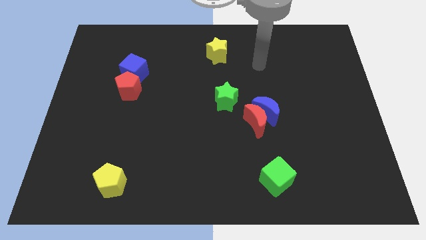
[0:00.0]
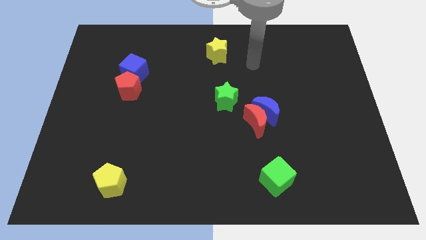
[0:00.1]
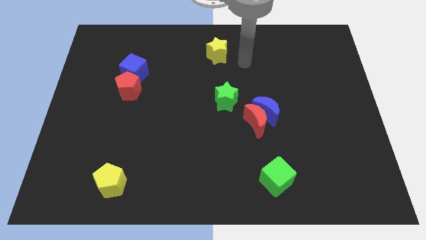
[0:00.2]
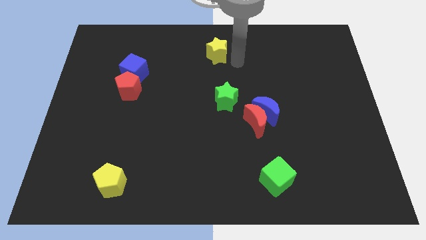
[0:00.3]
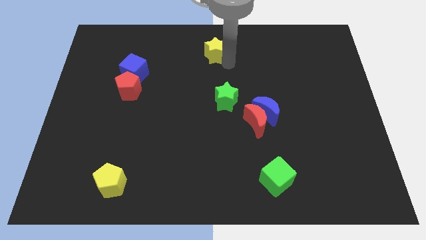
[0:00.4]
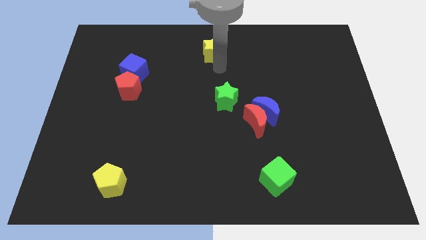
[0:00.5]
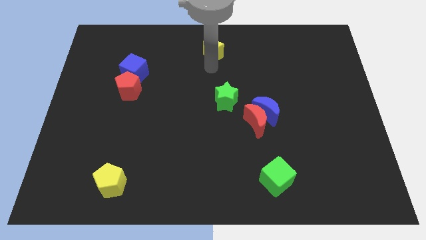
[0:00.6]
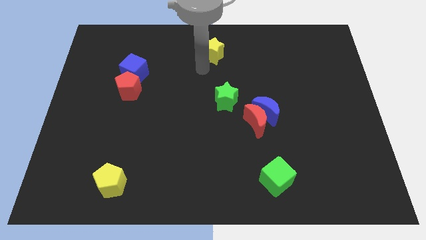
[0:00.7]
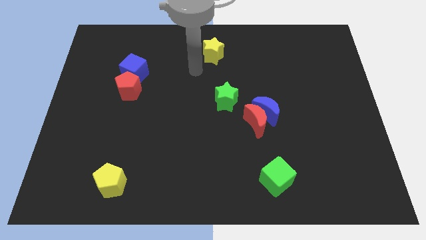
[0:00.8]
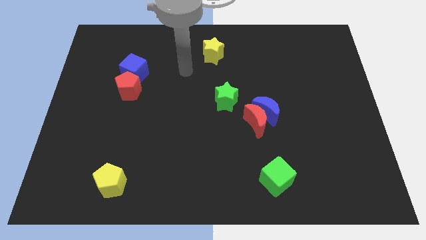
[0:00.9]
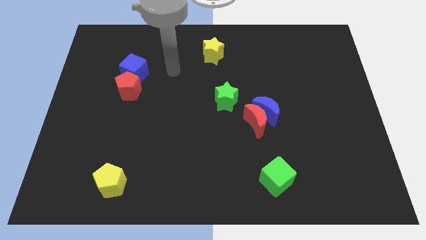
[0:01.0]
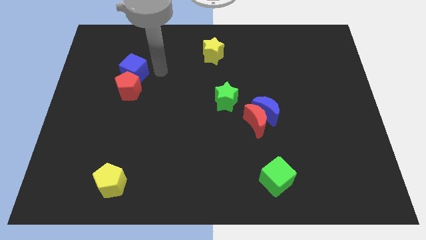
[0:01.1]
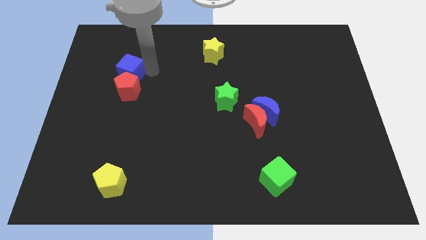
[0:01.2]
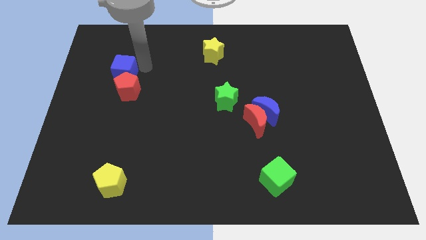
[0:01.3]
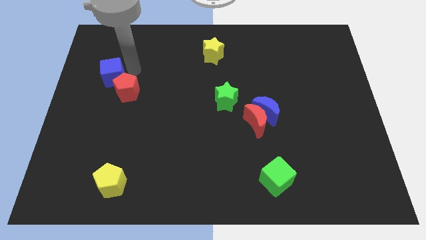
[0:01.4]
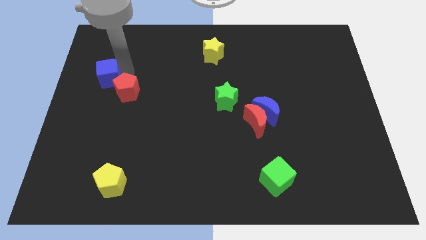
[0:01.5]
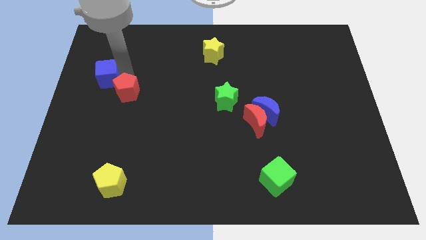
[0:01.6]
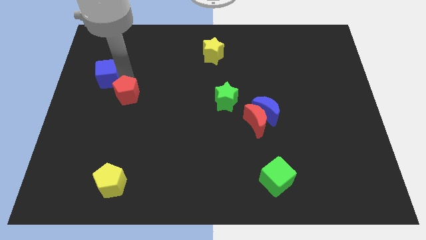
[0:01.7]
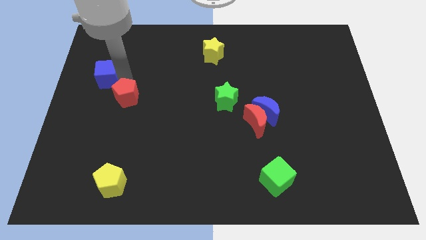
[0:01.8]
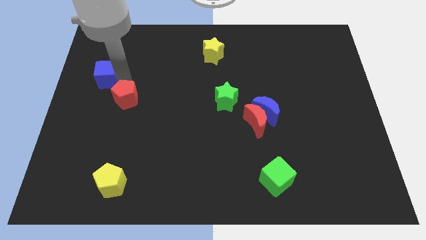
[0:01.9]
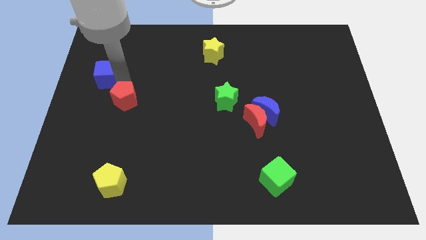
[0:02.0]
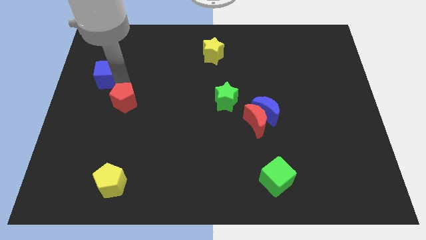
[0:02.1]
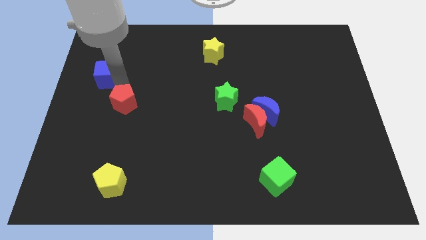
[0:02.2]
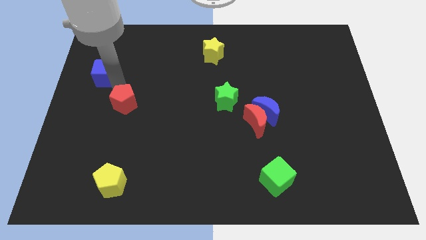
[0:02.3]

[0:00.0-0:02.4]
pull the red pentagon apart from the blue cube

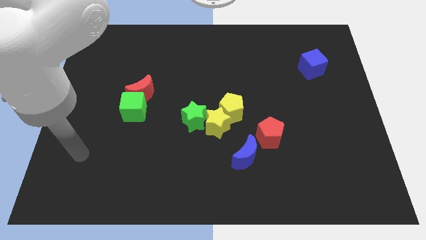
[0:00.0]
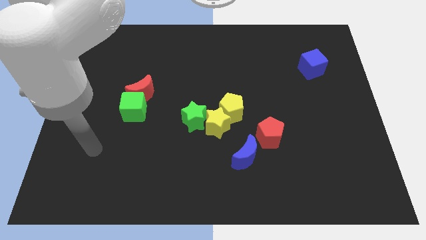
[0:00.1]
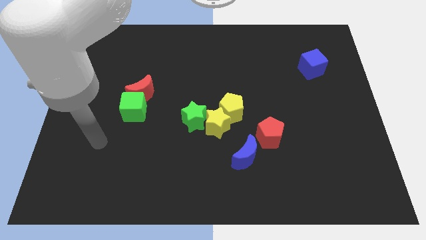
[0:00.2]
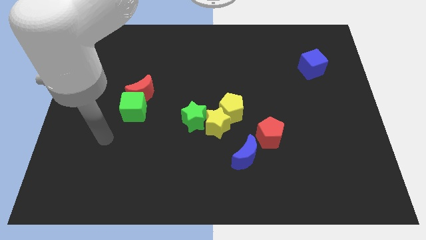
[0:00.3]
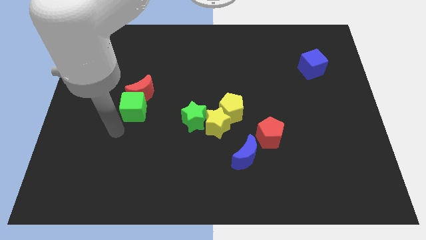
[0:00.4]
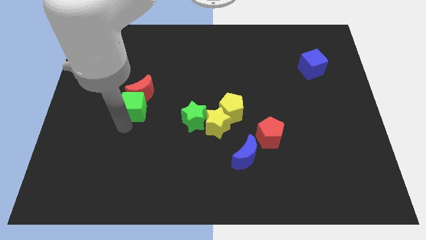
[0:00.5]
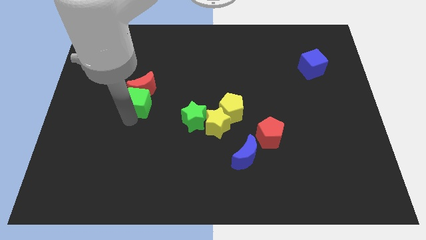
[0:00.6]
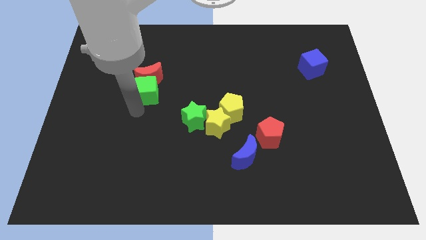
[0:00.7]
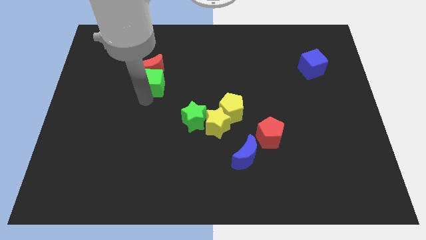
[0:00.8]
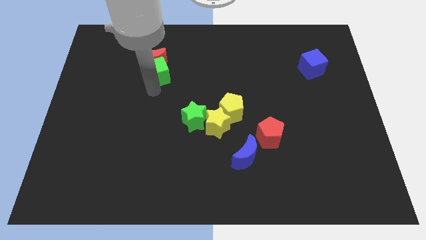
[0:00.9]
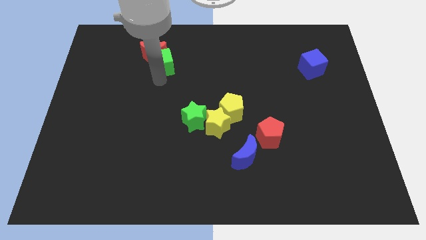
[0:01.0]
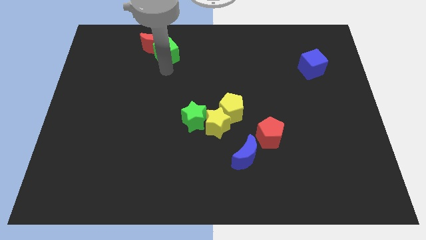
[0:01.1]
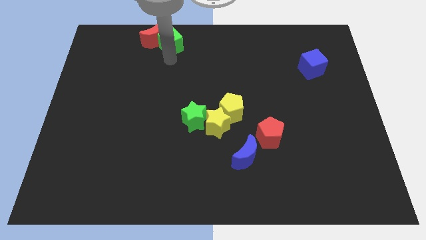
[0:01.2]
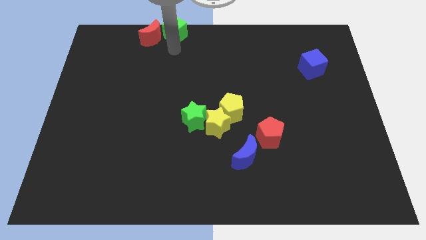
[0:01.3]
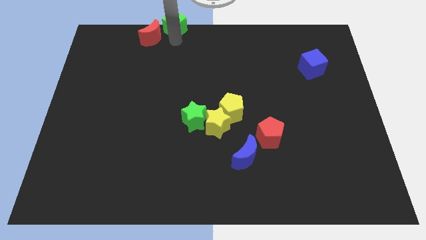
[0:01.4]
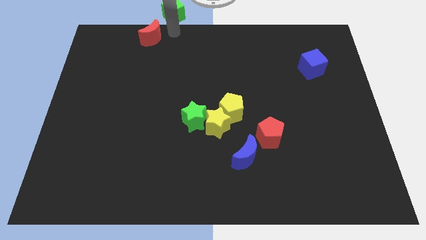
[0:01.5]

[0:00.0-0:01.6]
separate the red moon from the green cube

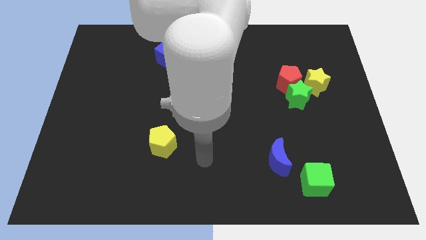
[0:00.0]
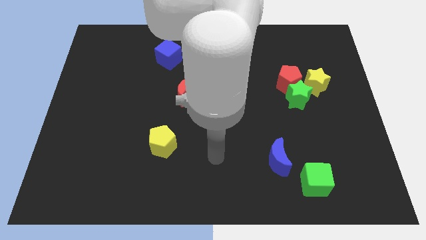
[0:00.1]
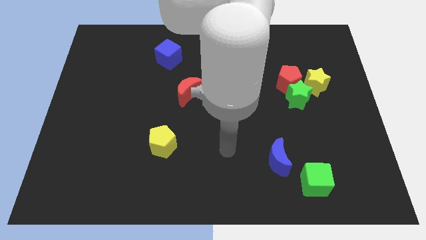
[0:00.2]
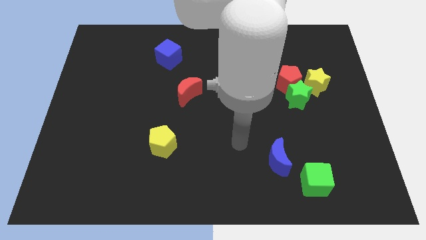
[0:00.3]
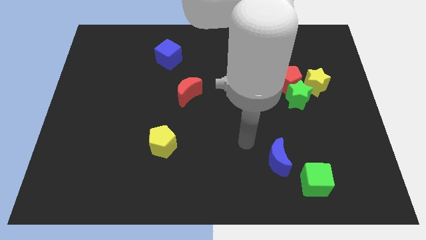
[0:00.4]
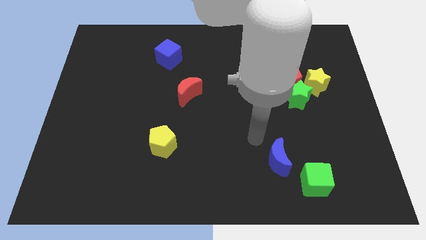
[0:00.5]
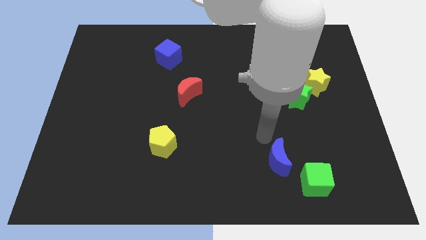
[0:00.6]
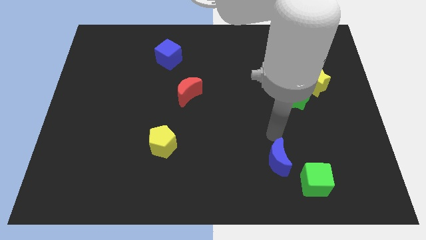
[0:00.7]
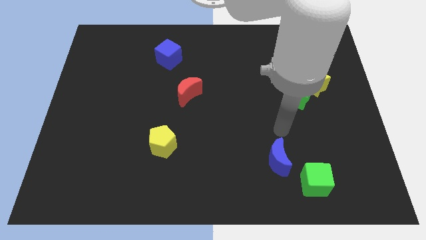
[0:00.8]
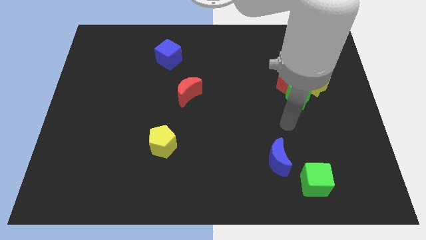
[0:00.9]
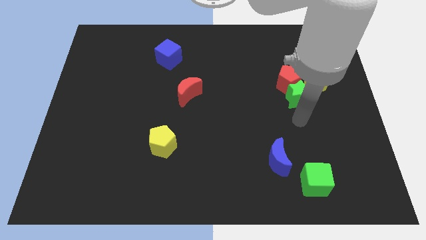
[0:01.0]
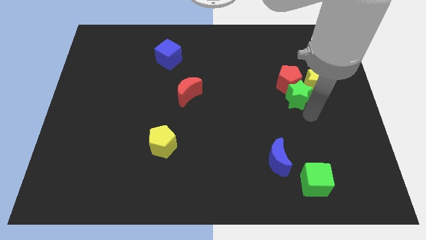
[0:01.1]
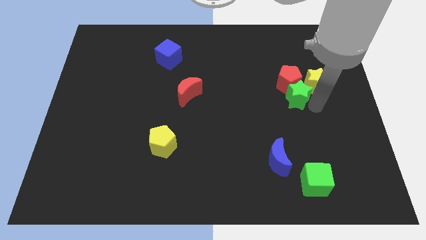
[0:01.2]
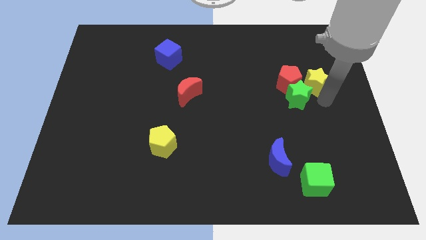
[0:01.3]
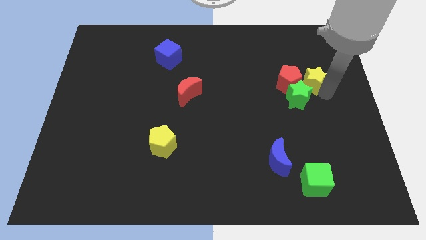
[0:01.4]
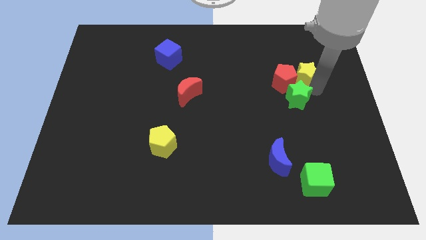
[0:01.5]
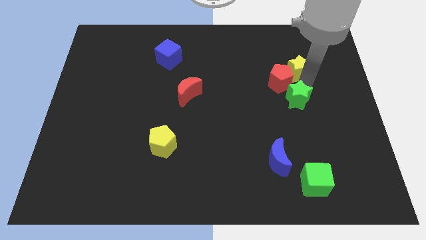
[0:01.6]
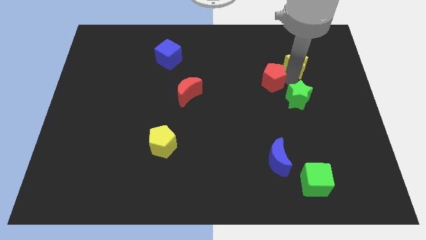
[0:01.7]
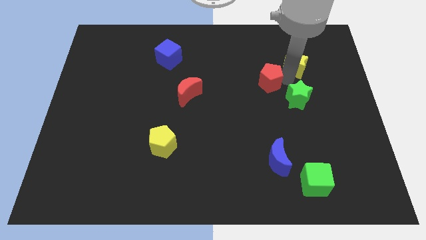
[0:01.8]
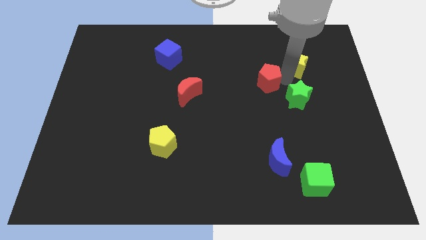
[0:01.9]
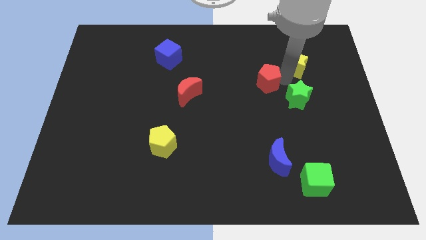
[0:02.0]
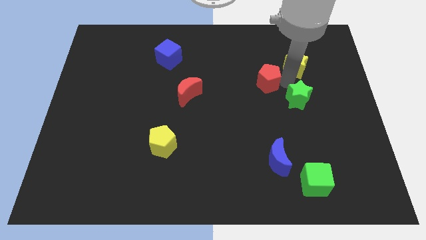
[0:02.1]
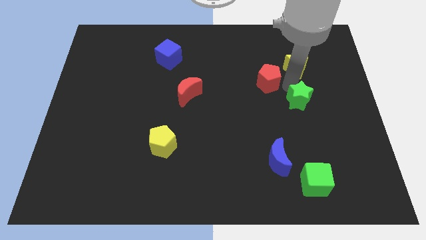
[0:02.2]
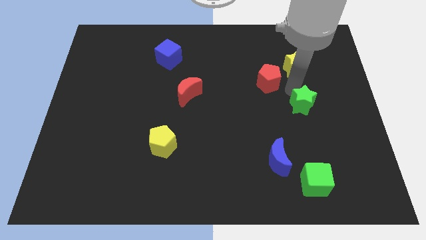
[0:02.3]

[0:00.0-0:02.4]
move the green star away from the red pentagon and yellow star

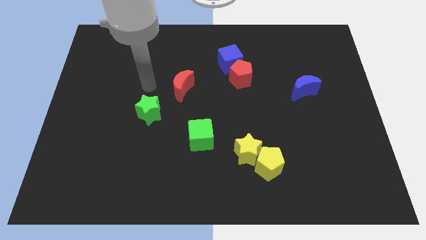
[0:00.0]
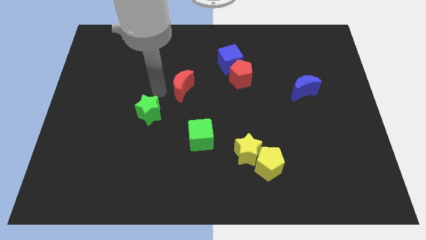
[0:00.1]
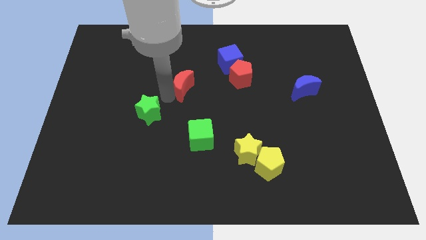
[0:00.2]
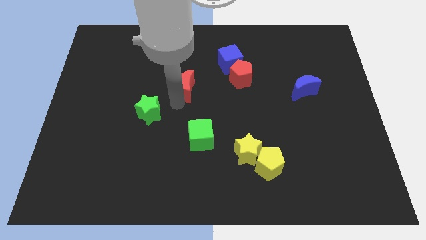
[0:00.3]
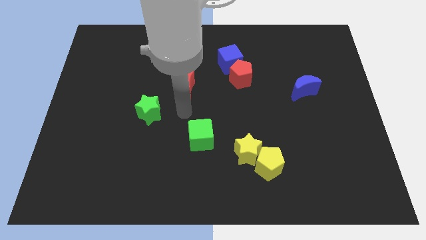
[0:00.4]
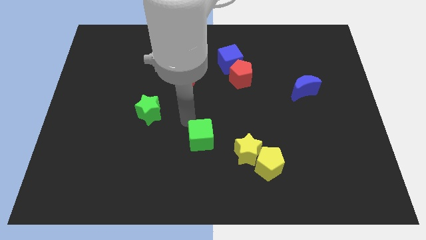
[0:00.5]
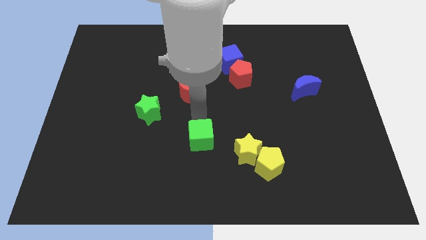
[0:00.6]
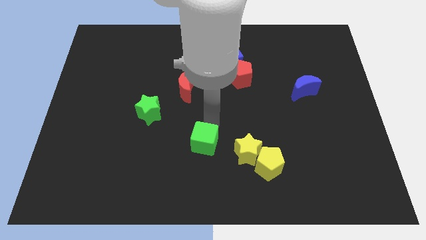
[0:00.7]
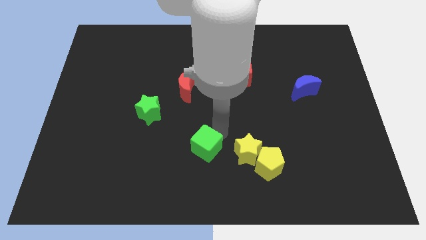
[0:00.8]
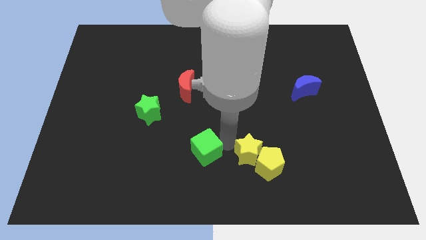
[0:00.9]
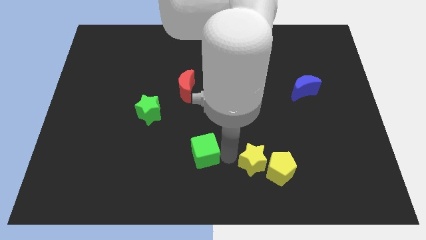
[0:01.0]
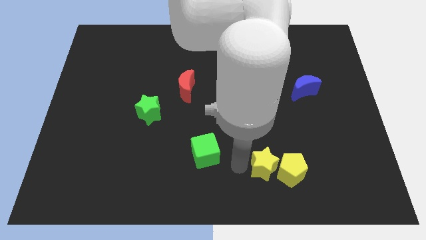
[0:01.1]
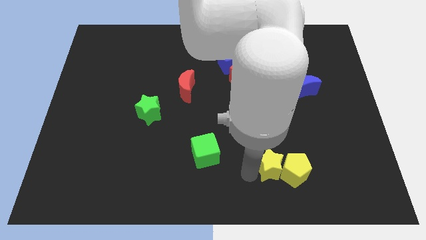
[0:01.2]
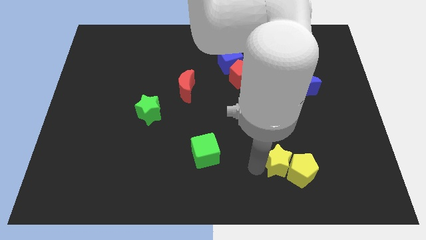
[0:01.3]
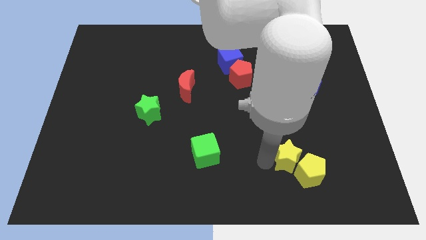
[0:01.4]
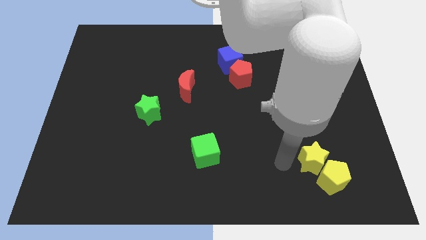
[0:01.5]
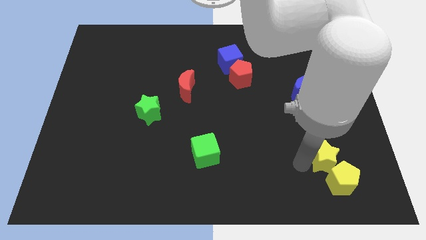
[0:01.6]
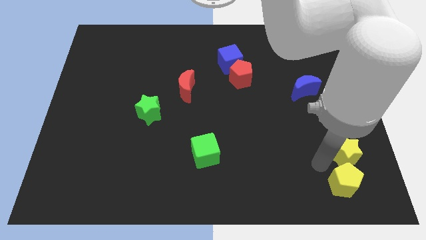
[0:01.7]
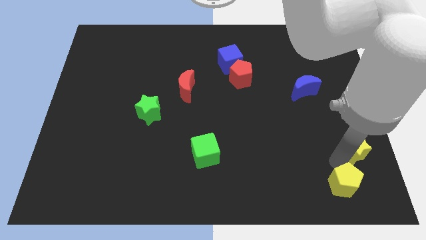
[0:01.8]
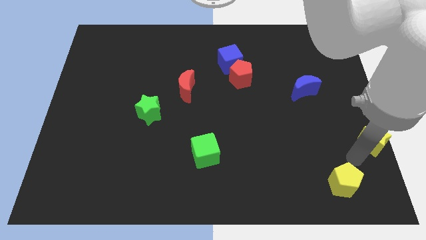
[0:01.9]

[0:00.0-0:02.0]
move the yellow star away from the yellow pentagon

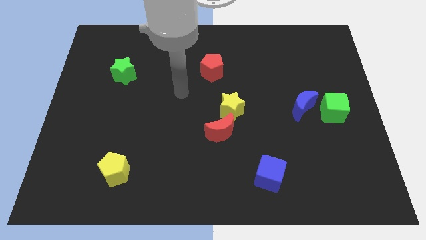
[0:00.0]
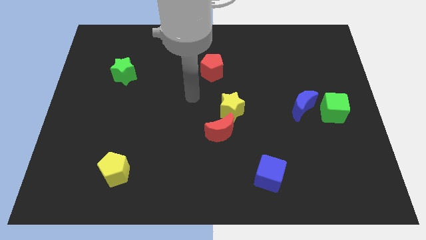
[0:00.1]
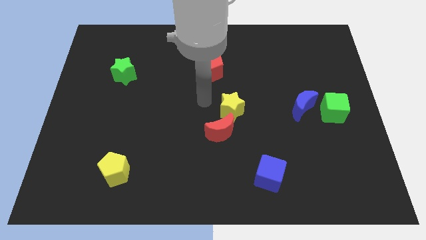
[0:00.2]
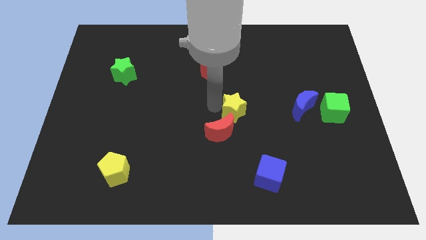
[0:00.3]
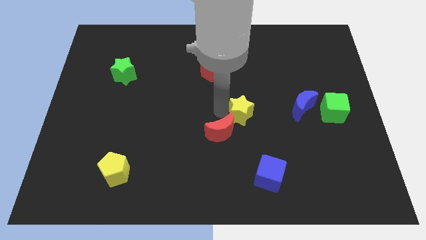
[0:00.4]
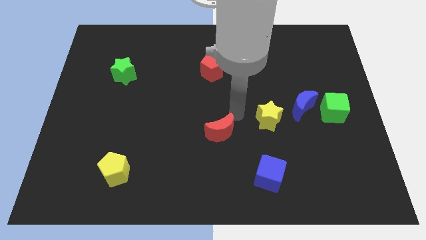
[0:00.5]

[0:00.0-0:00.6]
move the red moon away from the yellow star

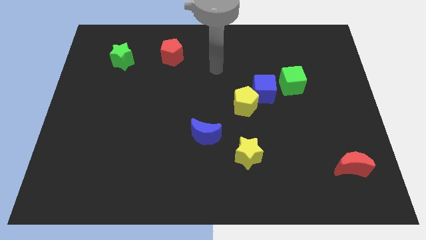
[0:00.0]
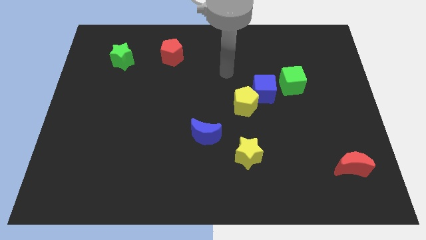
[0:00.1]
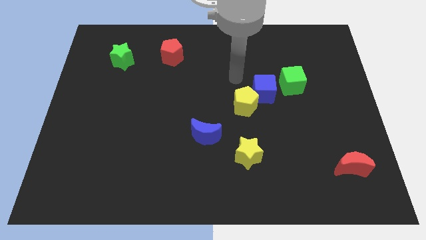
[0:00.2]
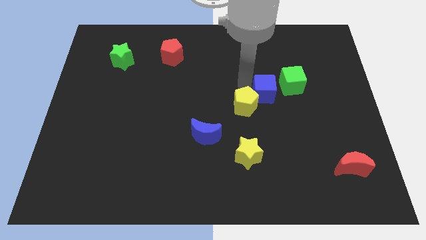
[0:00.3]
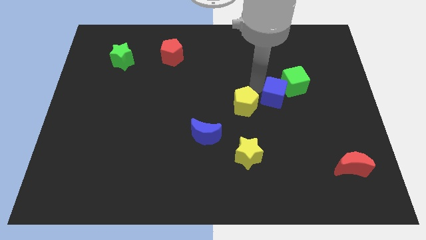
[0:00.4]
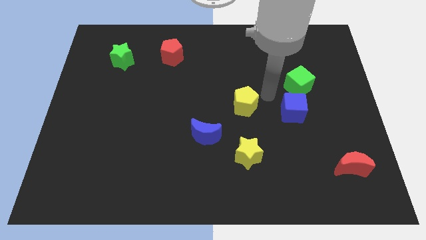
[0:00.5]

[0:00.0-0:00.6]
separate the yellow pentagon from the blue cube
